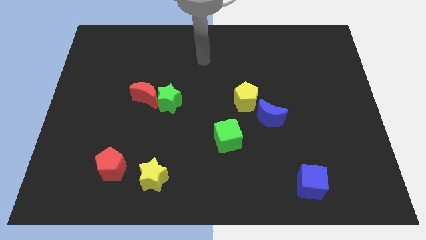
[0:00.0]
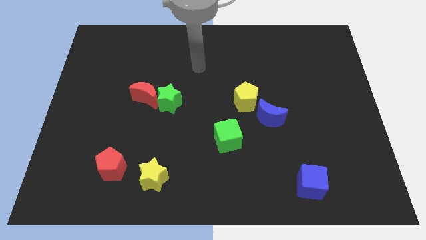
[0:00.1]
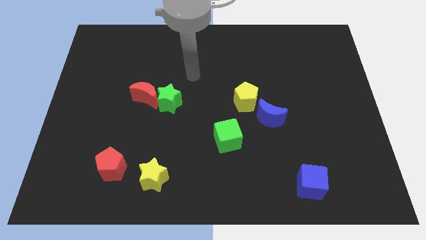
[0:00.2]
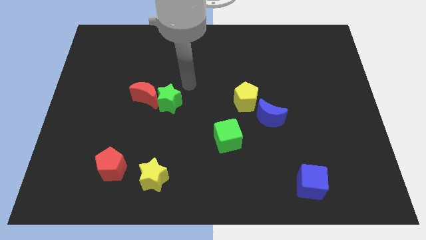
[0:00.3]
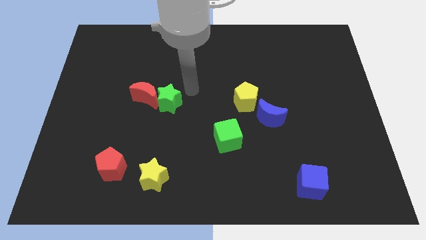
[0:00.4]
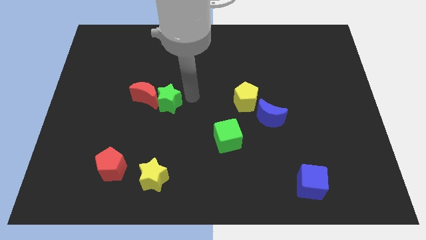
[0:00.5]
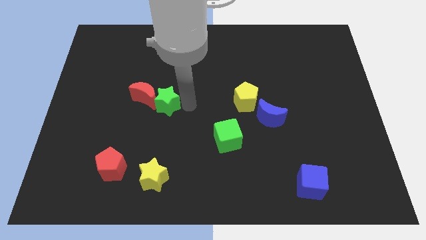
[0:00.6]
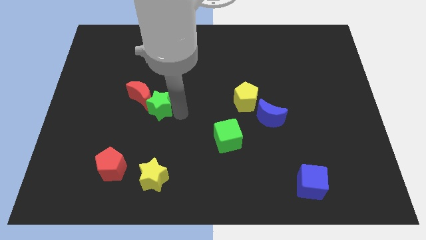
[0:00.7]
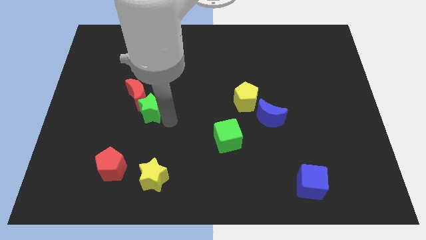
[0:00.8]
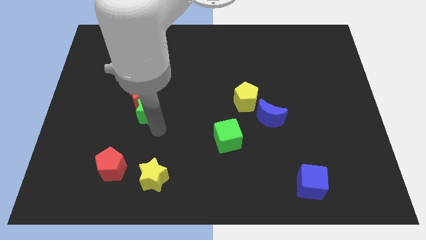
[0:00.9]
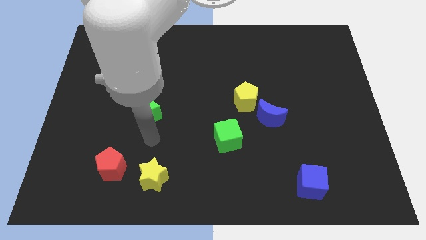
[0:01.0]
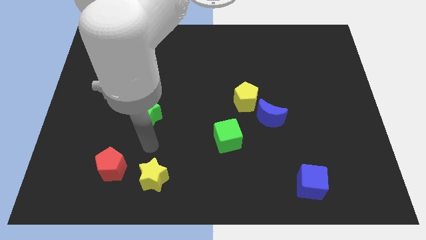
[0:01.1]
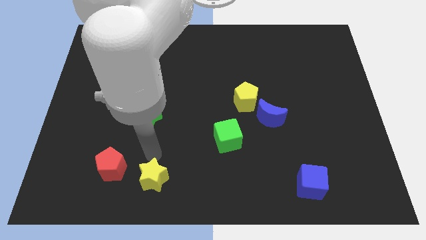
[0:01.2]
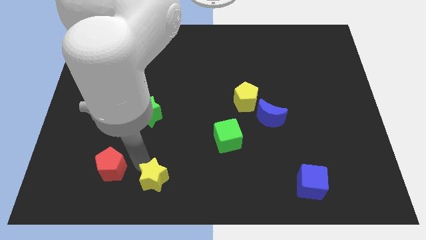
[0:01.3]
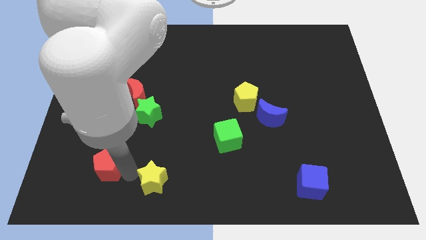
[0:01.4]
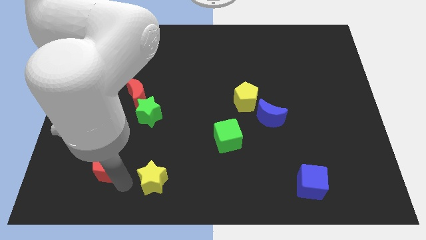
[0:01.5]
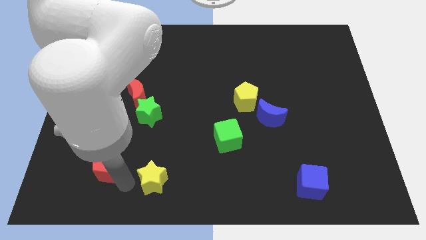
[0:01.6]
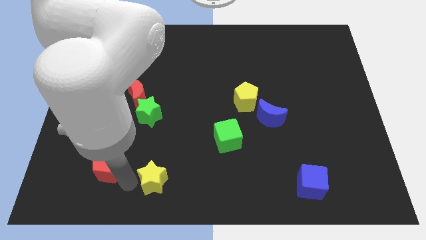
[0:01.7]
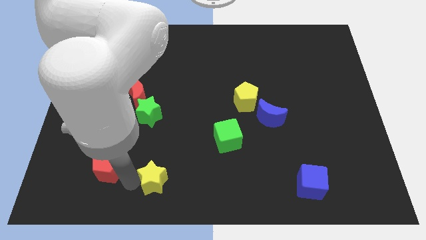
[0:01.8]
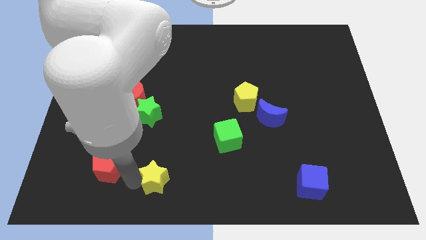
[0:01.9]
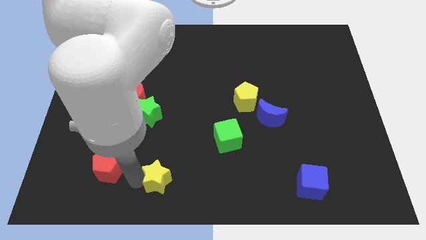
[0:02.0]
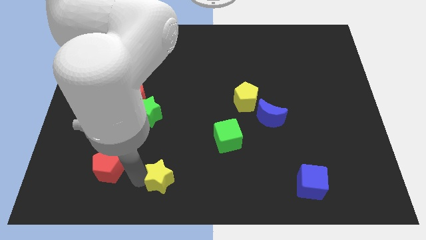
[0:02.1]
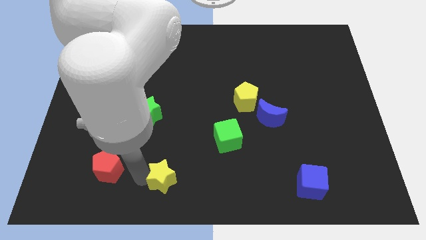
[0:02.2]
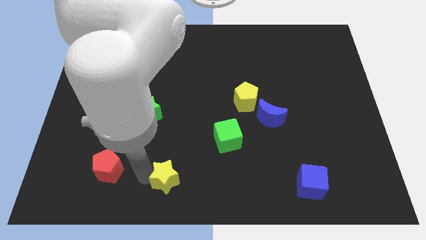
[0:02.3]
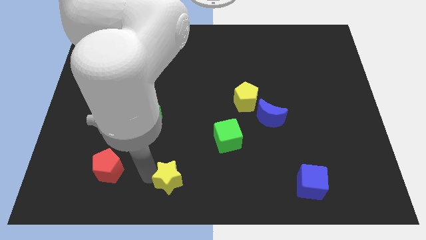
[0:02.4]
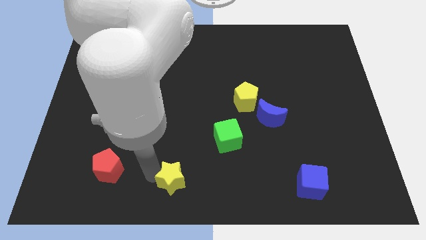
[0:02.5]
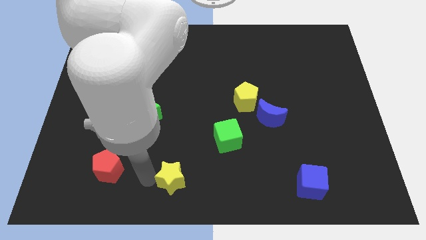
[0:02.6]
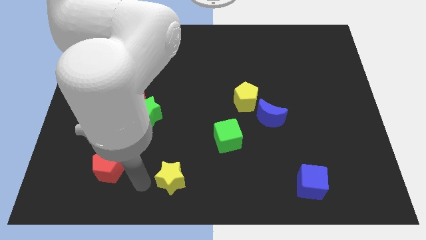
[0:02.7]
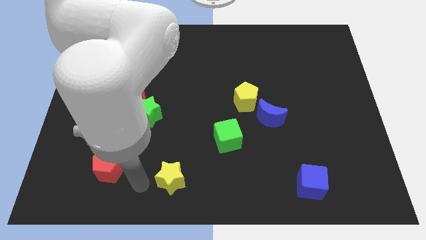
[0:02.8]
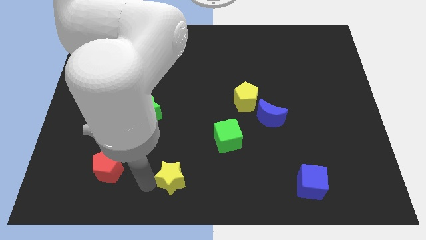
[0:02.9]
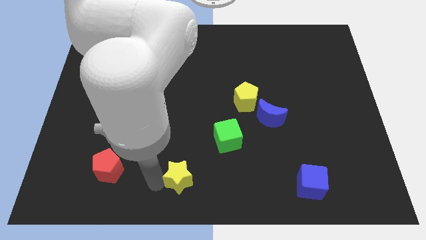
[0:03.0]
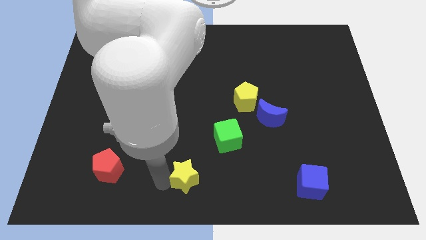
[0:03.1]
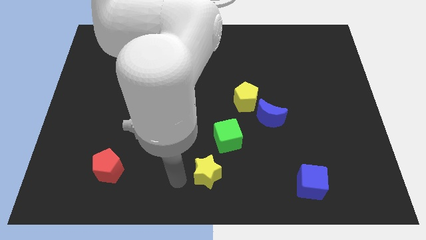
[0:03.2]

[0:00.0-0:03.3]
push the yellow star right a little

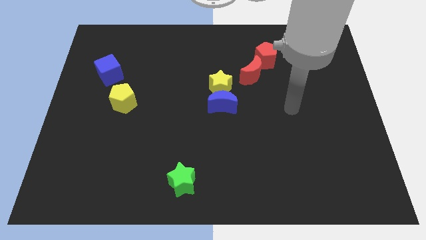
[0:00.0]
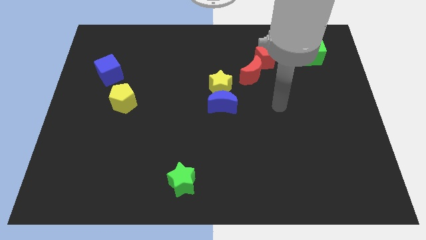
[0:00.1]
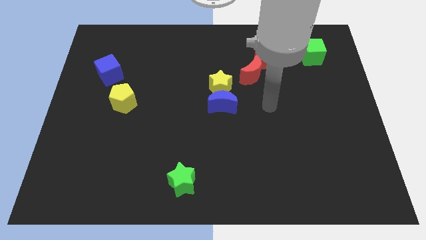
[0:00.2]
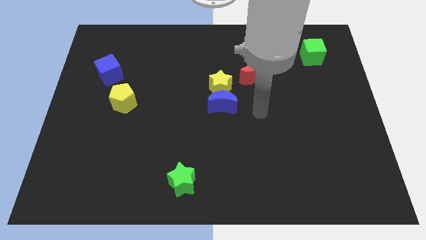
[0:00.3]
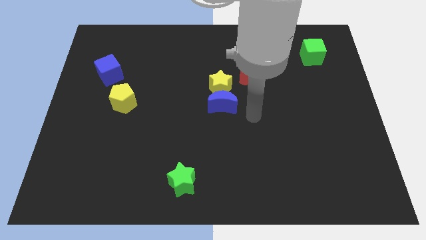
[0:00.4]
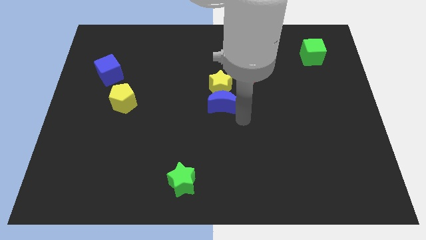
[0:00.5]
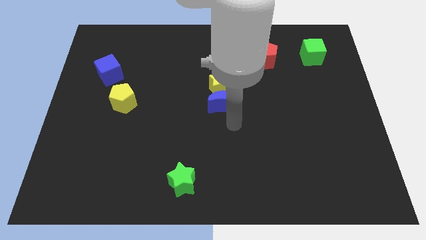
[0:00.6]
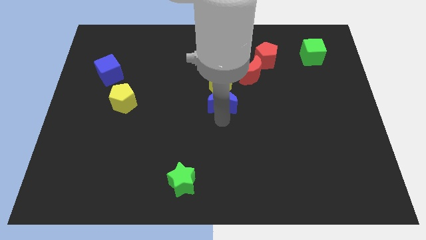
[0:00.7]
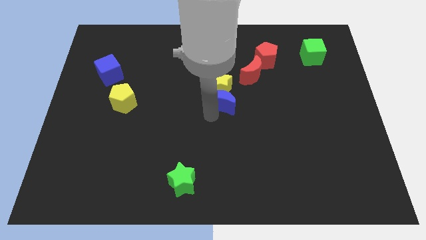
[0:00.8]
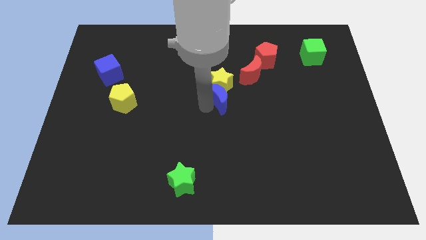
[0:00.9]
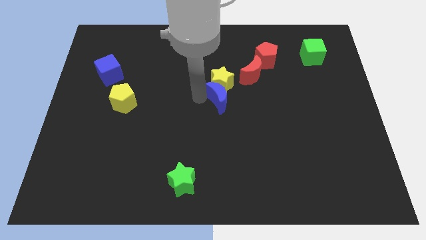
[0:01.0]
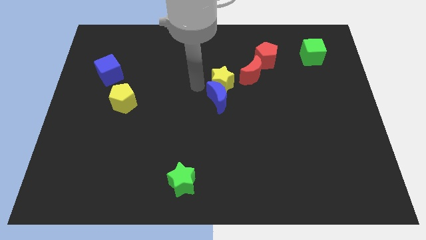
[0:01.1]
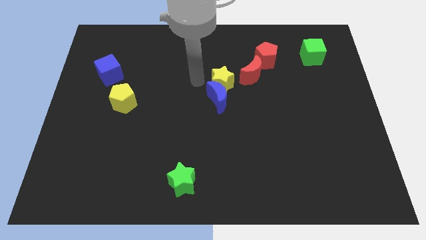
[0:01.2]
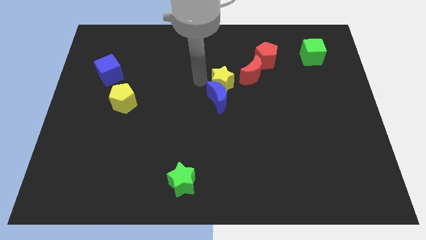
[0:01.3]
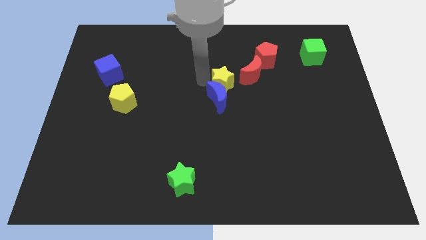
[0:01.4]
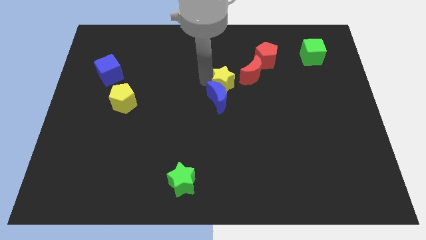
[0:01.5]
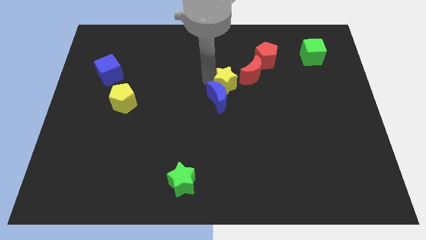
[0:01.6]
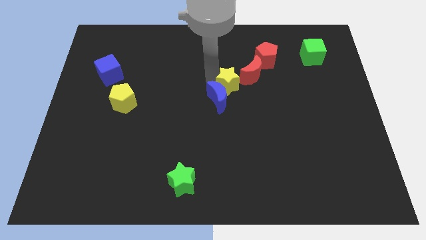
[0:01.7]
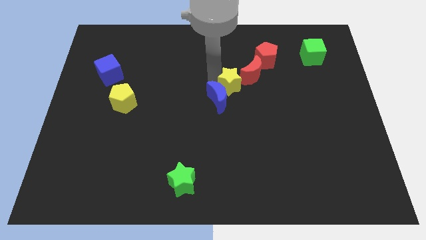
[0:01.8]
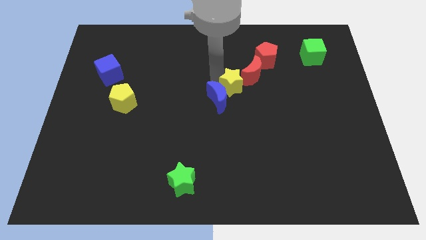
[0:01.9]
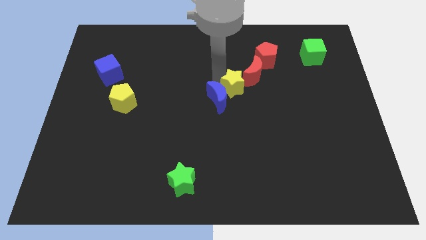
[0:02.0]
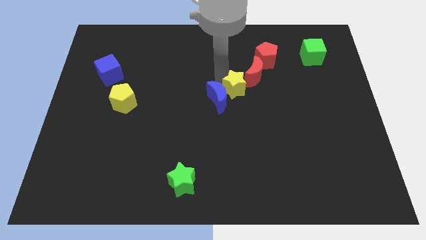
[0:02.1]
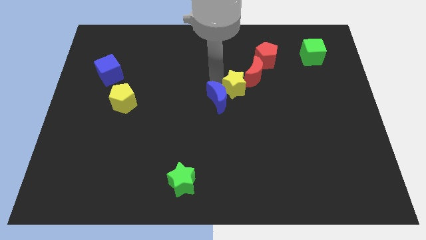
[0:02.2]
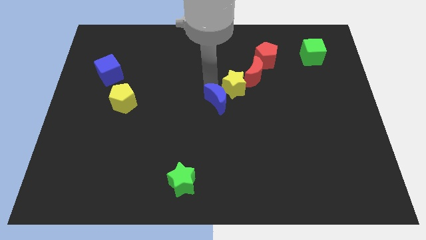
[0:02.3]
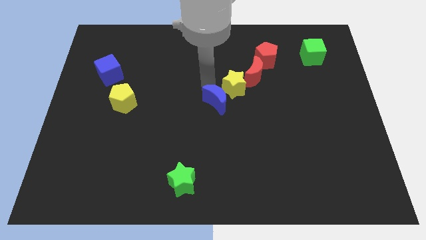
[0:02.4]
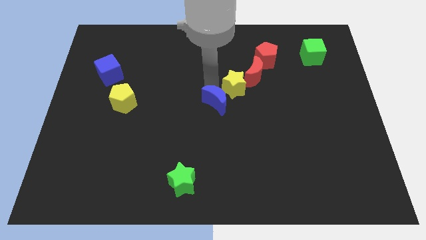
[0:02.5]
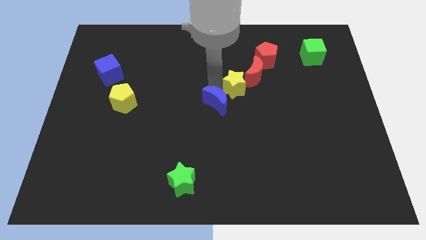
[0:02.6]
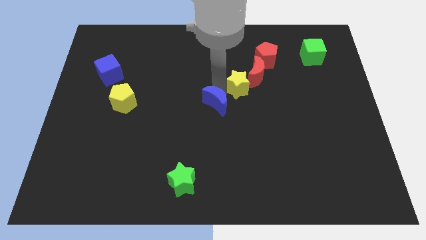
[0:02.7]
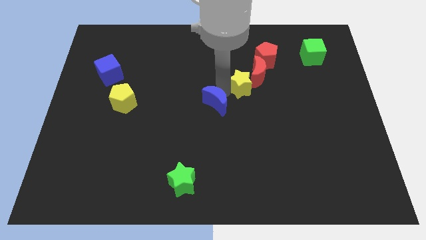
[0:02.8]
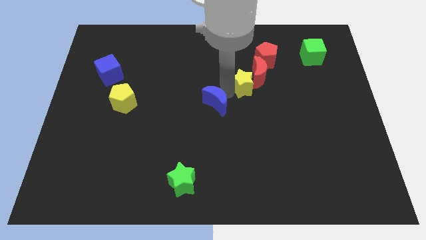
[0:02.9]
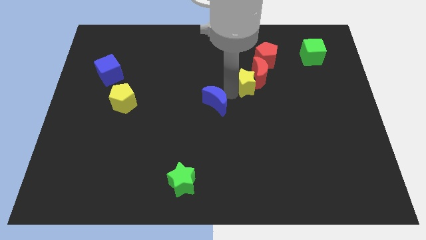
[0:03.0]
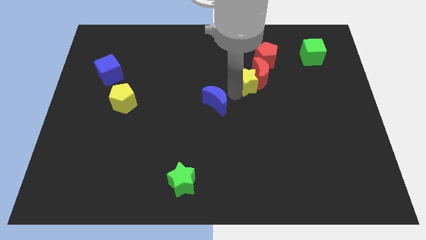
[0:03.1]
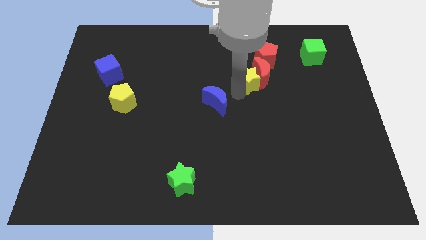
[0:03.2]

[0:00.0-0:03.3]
push the yellow star slightly to the right

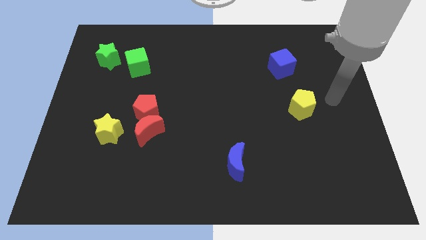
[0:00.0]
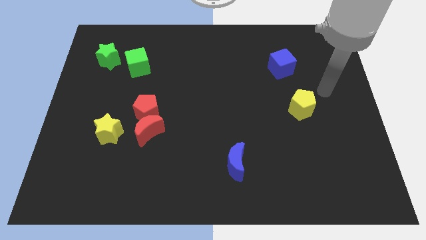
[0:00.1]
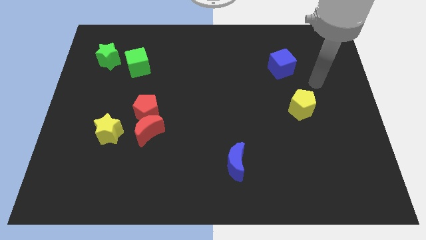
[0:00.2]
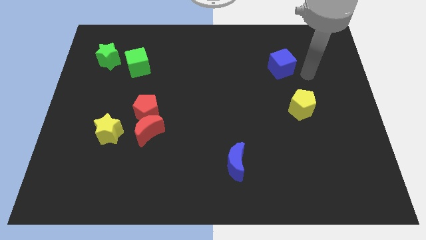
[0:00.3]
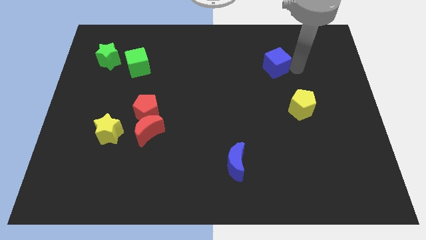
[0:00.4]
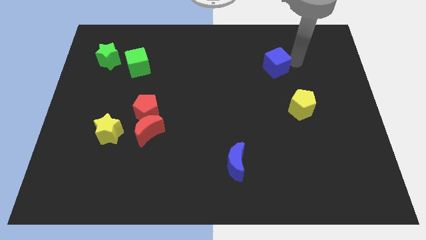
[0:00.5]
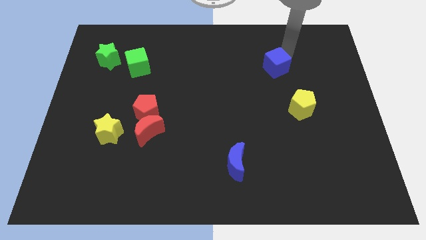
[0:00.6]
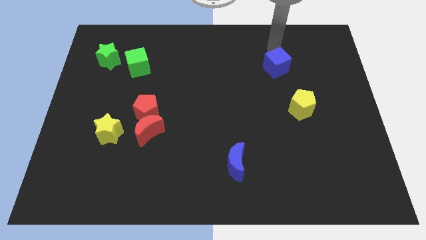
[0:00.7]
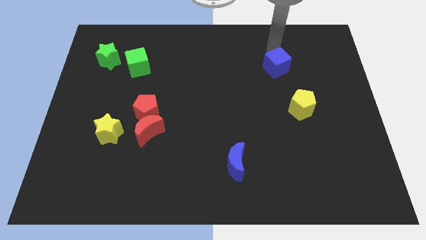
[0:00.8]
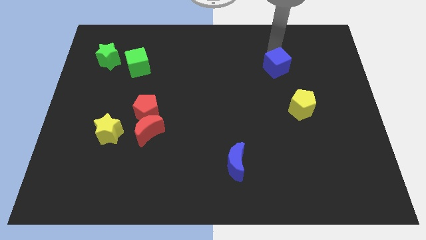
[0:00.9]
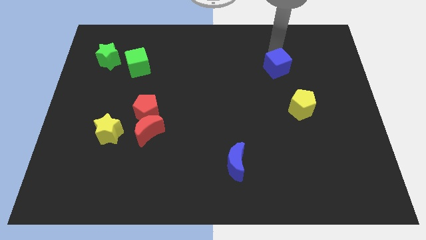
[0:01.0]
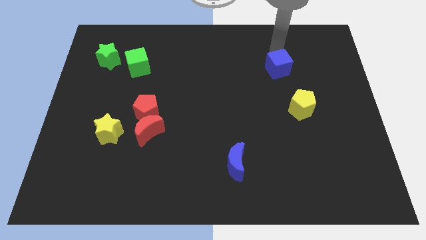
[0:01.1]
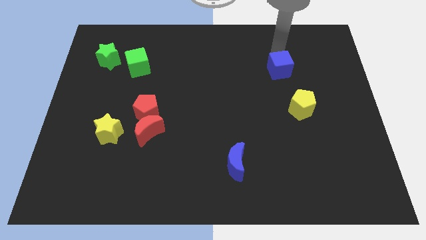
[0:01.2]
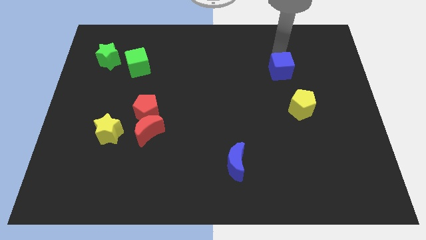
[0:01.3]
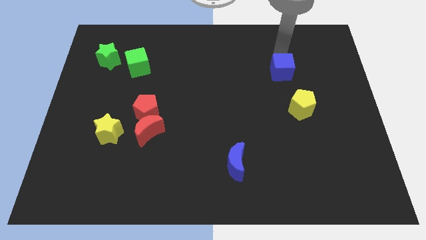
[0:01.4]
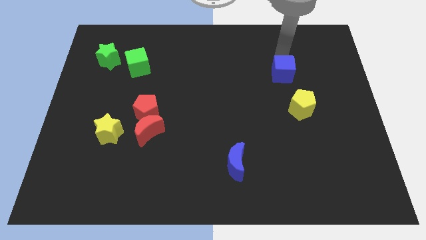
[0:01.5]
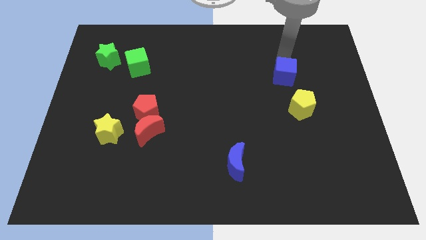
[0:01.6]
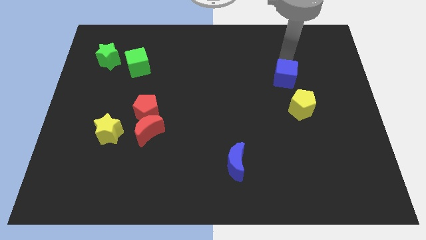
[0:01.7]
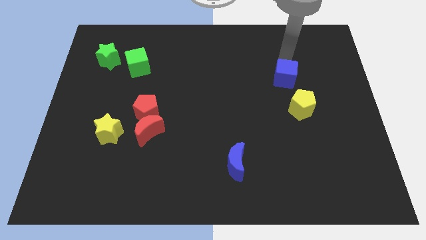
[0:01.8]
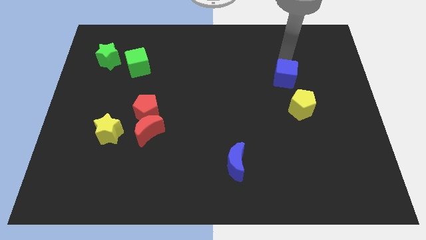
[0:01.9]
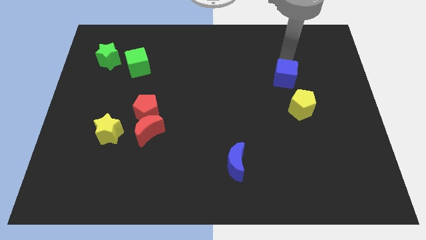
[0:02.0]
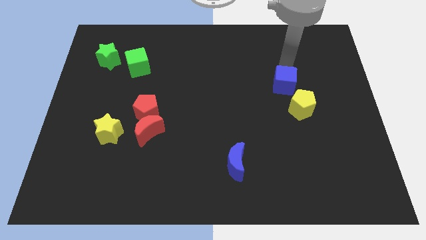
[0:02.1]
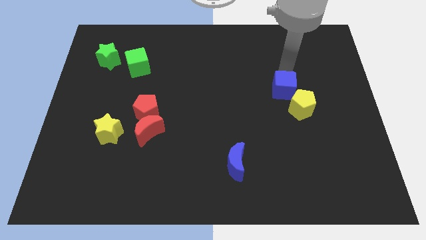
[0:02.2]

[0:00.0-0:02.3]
slightly slide the blue cube down
